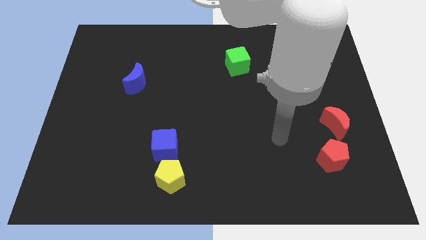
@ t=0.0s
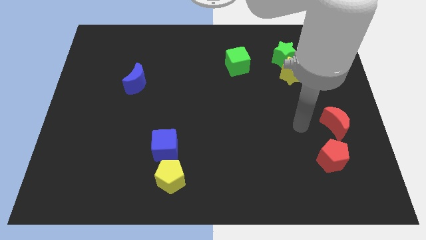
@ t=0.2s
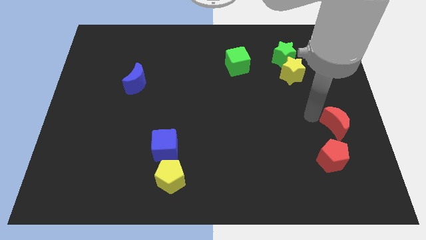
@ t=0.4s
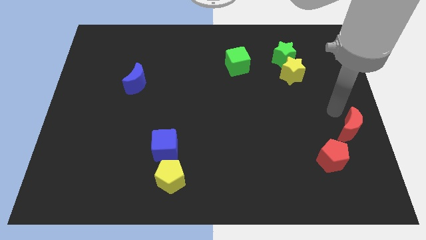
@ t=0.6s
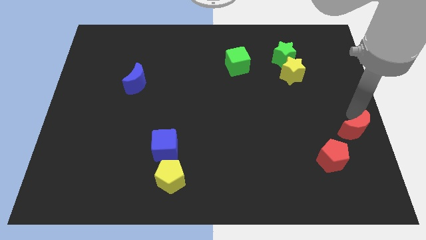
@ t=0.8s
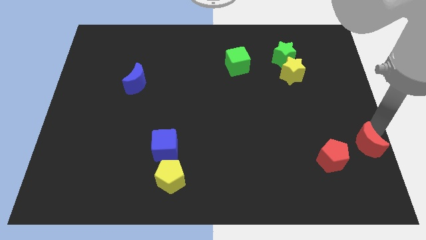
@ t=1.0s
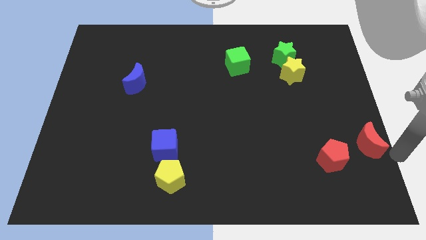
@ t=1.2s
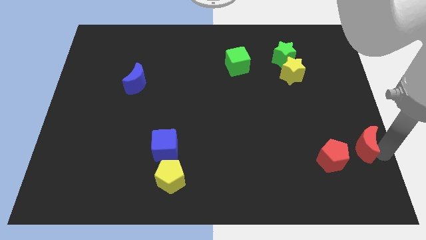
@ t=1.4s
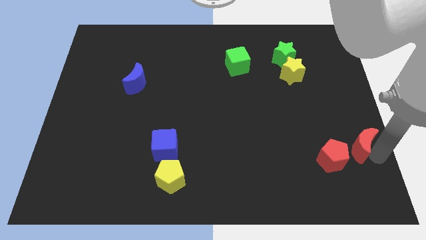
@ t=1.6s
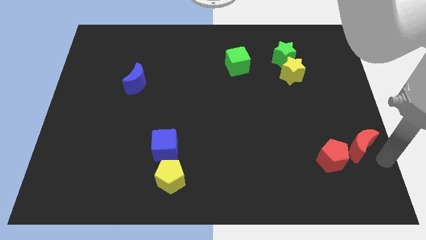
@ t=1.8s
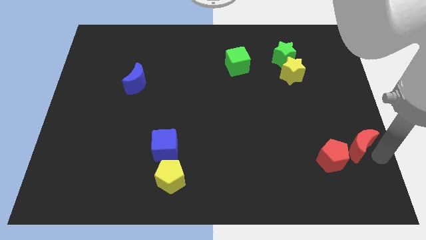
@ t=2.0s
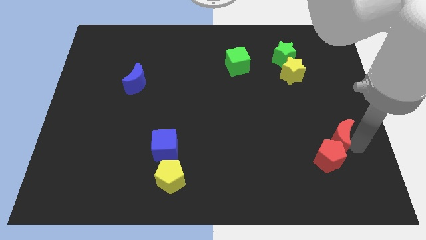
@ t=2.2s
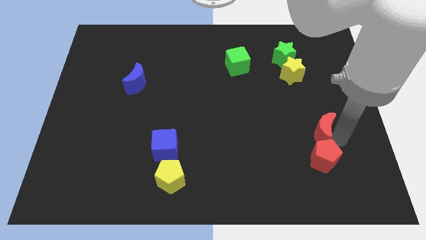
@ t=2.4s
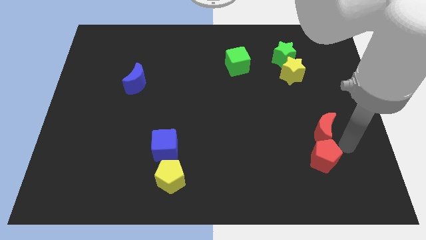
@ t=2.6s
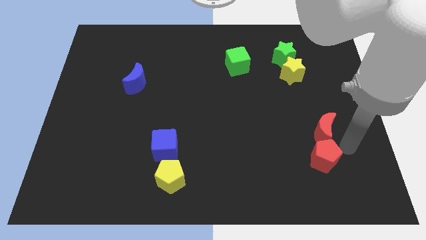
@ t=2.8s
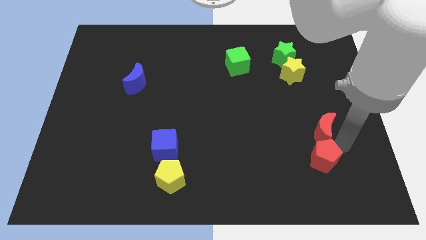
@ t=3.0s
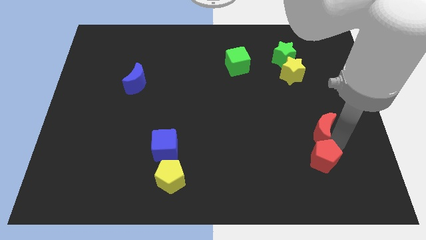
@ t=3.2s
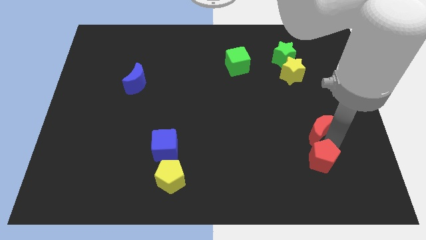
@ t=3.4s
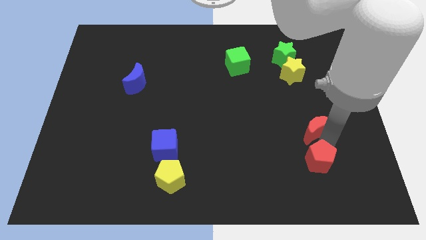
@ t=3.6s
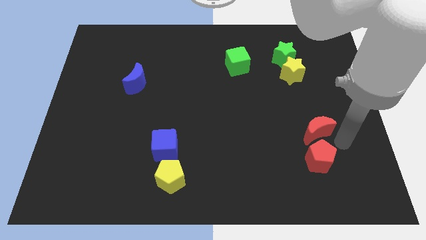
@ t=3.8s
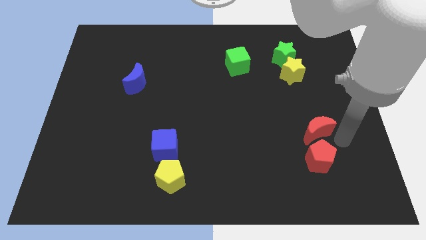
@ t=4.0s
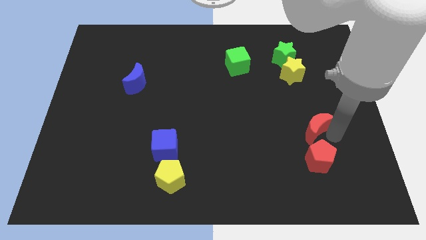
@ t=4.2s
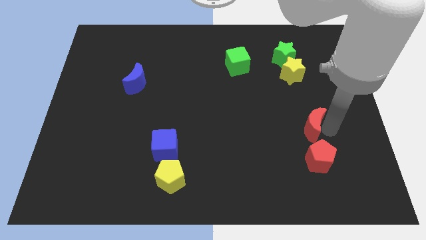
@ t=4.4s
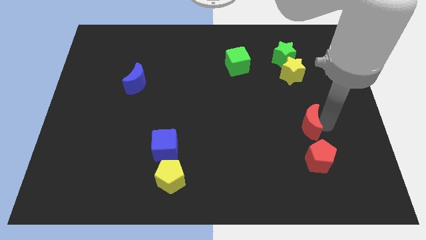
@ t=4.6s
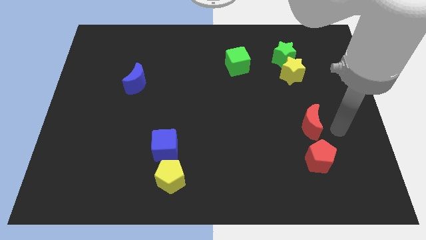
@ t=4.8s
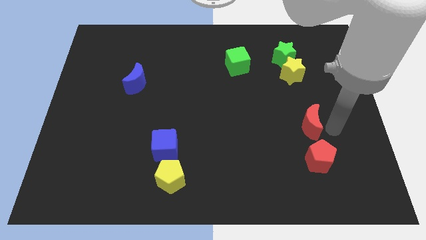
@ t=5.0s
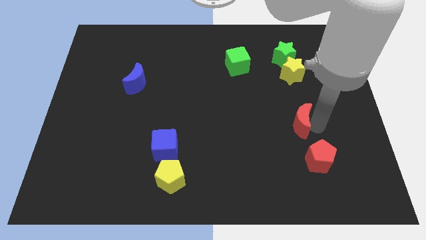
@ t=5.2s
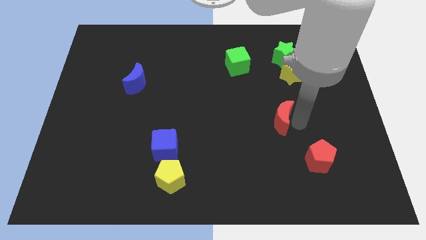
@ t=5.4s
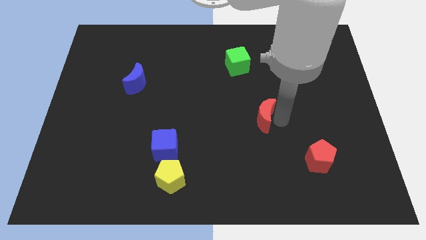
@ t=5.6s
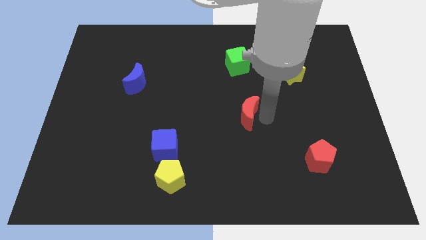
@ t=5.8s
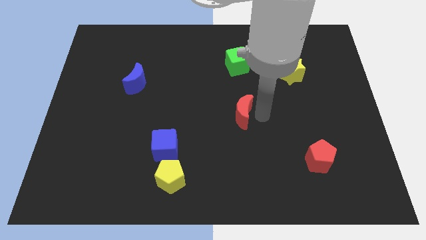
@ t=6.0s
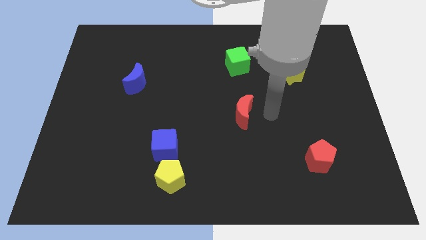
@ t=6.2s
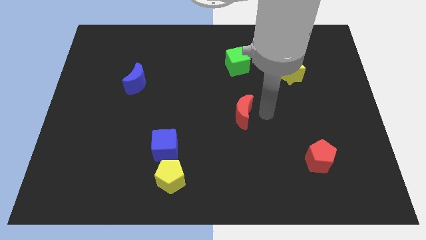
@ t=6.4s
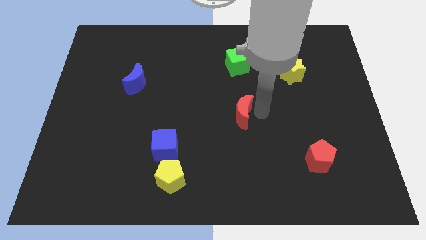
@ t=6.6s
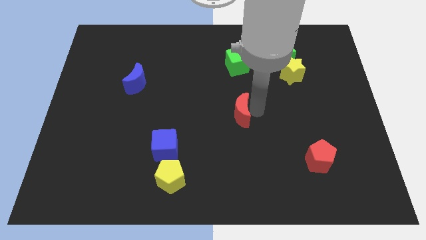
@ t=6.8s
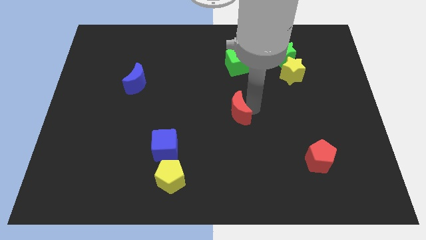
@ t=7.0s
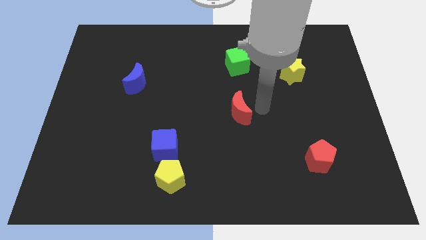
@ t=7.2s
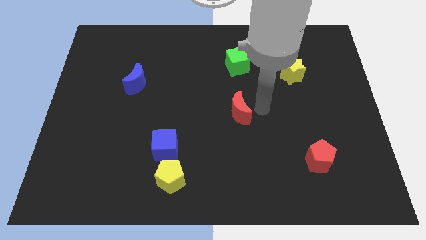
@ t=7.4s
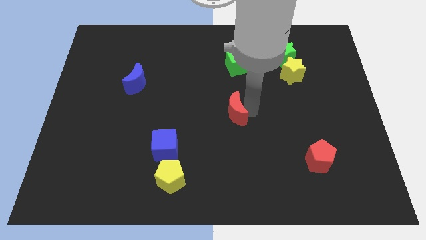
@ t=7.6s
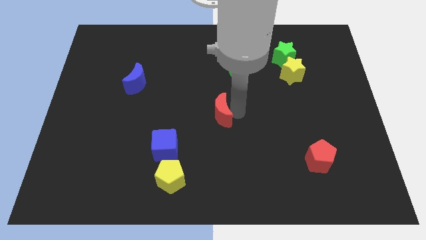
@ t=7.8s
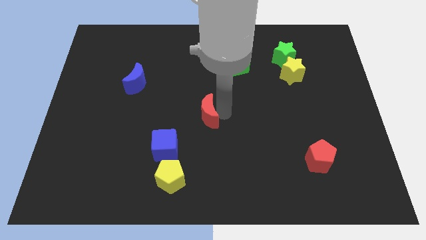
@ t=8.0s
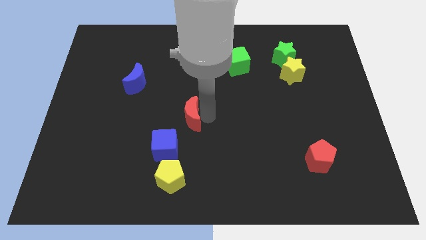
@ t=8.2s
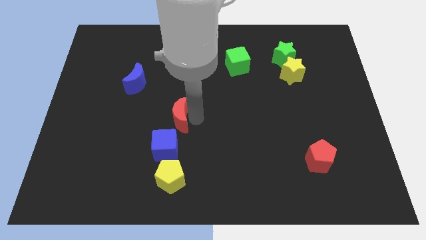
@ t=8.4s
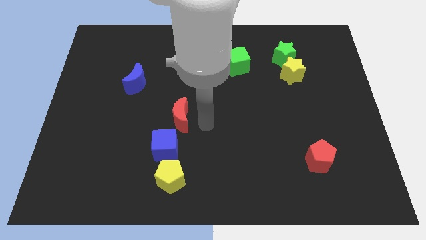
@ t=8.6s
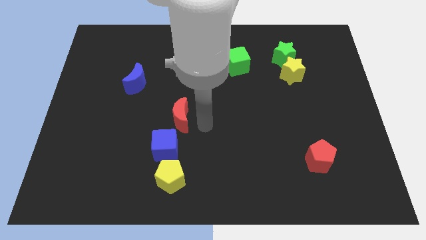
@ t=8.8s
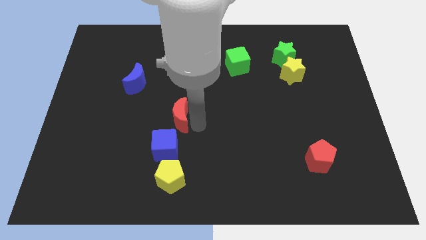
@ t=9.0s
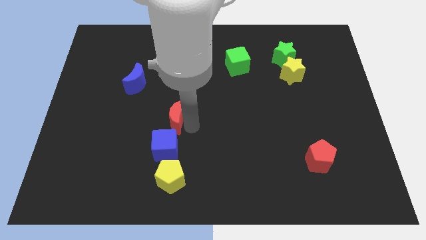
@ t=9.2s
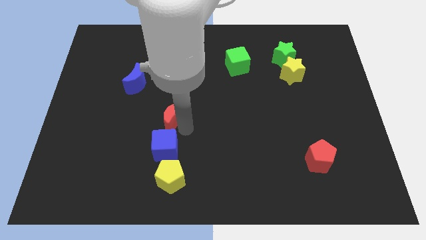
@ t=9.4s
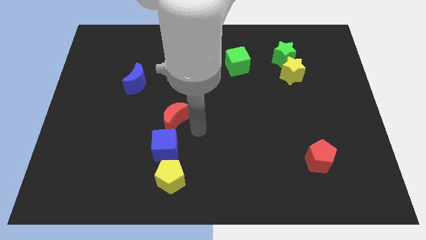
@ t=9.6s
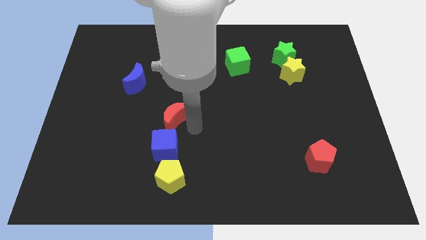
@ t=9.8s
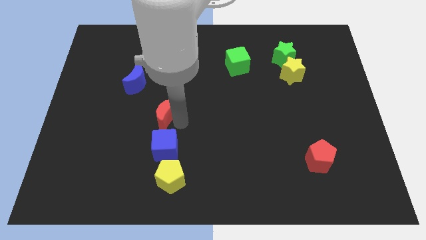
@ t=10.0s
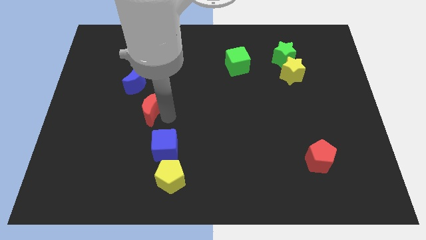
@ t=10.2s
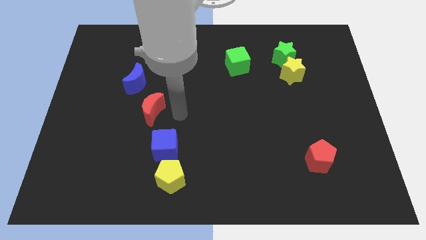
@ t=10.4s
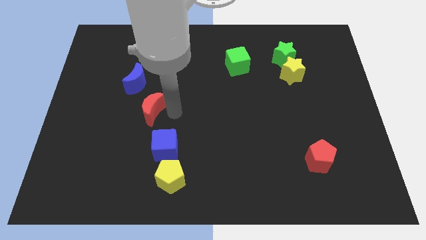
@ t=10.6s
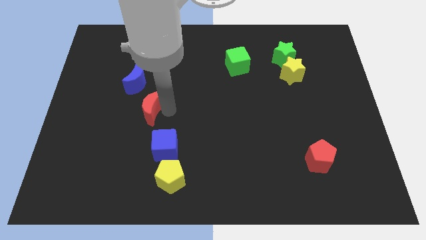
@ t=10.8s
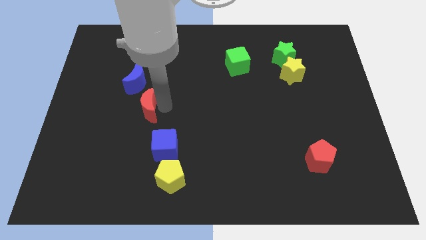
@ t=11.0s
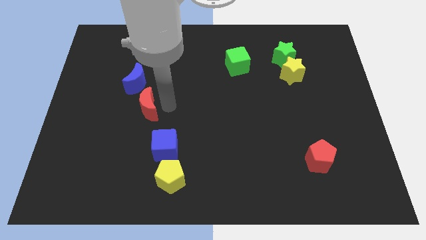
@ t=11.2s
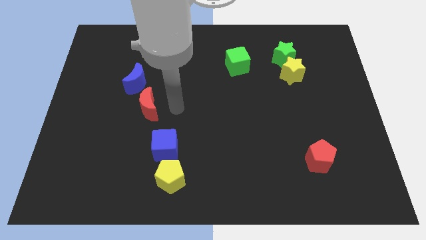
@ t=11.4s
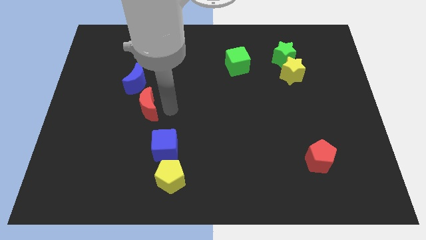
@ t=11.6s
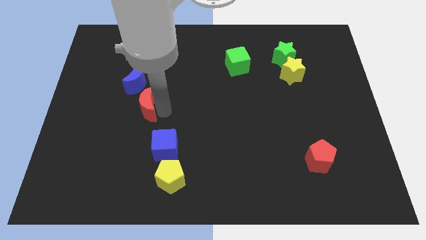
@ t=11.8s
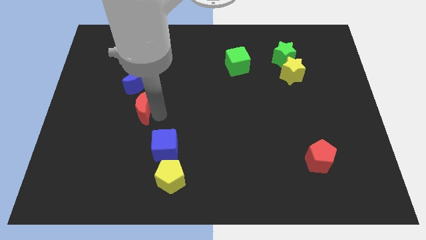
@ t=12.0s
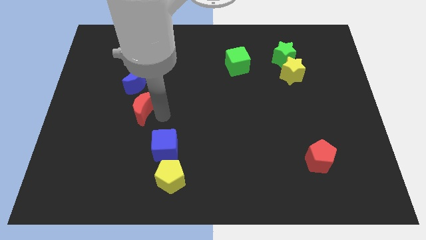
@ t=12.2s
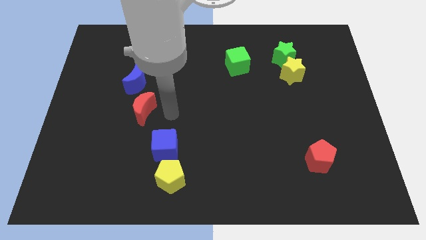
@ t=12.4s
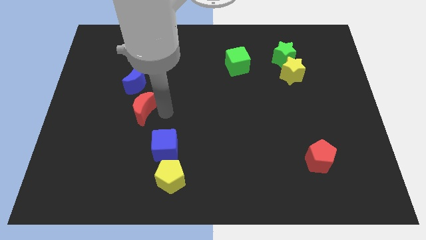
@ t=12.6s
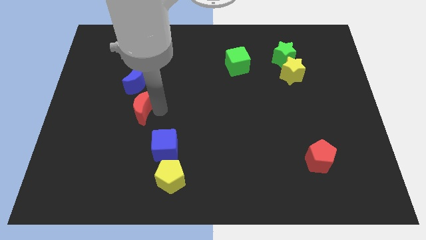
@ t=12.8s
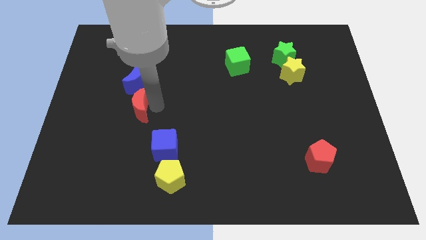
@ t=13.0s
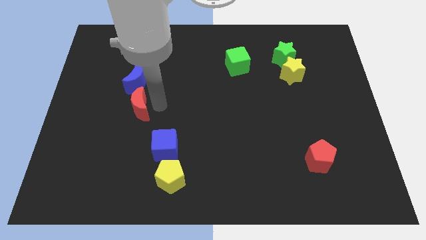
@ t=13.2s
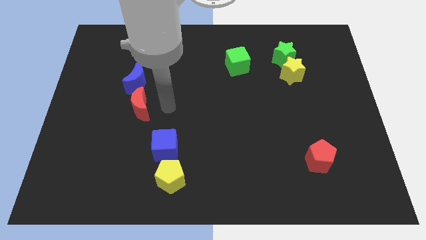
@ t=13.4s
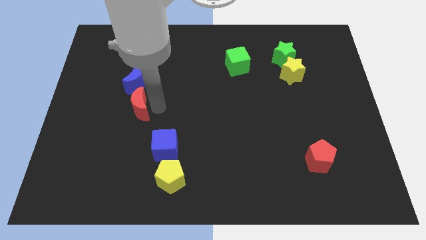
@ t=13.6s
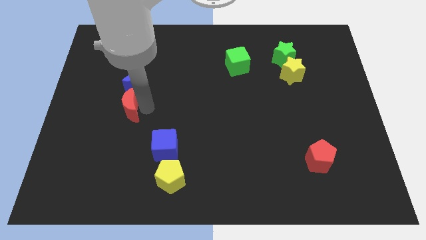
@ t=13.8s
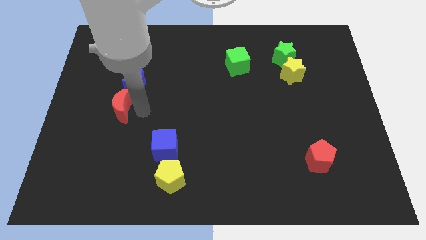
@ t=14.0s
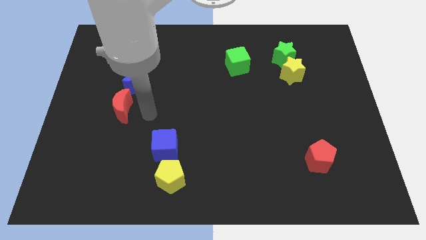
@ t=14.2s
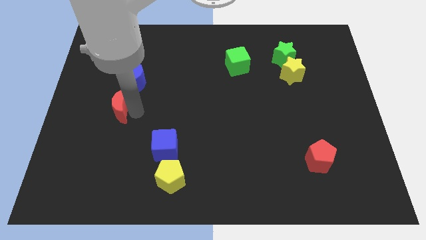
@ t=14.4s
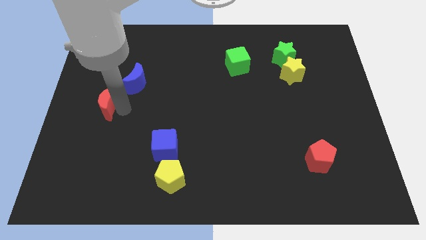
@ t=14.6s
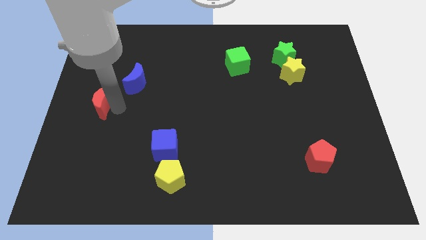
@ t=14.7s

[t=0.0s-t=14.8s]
slide the red moon to the left side of the board
